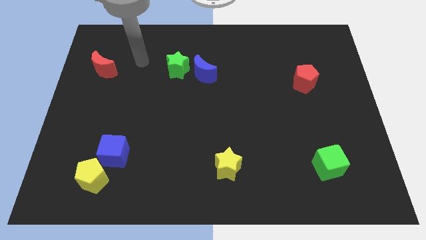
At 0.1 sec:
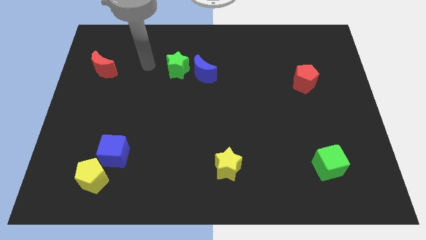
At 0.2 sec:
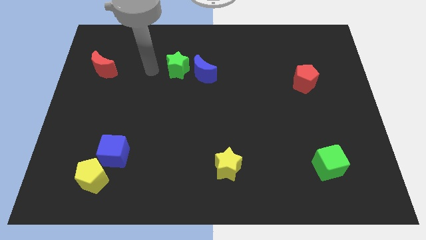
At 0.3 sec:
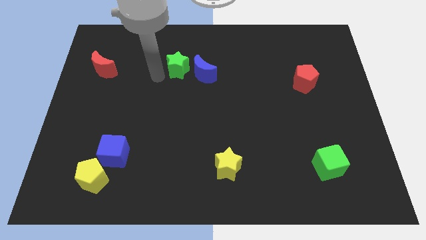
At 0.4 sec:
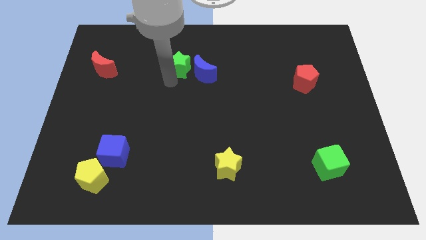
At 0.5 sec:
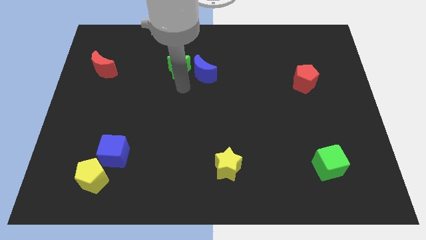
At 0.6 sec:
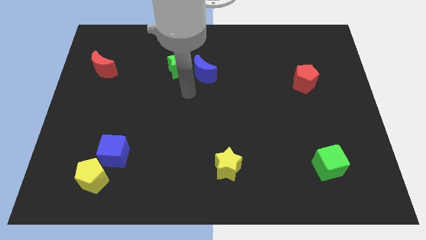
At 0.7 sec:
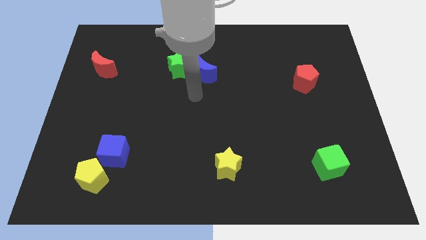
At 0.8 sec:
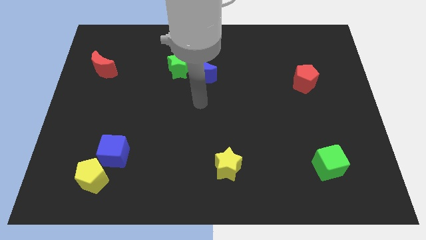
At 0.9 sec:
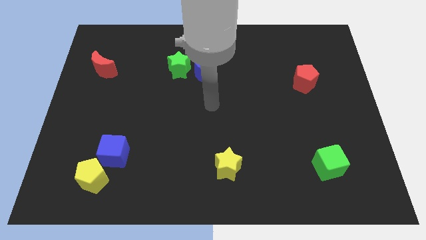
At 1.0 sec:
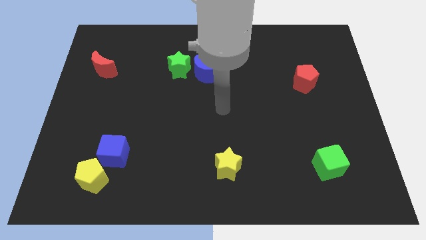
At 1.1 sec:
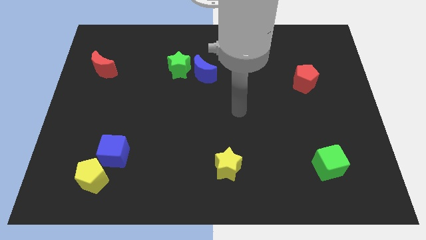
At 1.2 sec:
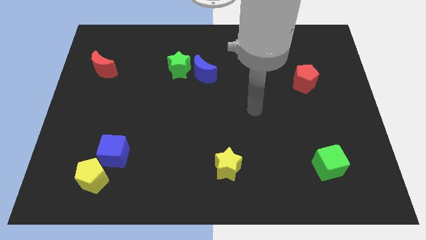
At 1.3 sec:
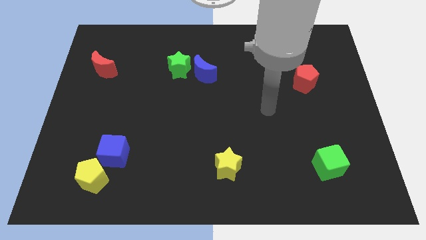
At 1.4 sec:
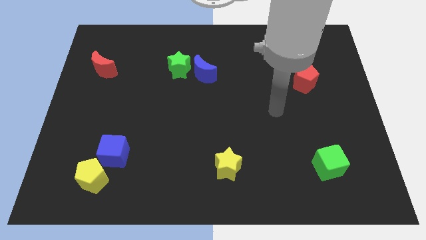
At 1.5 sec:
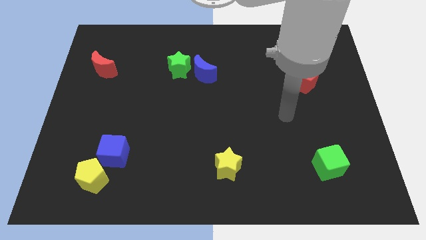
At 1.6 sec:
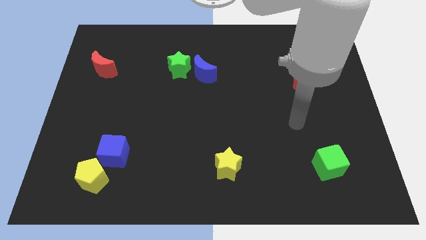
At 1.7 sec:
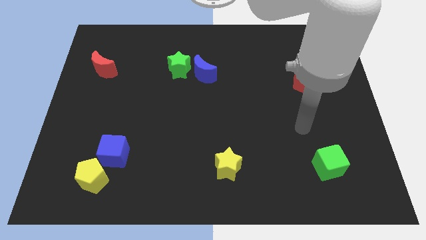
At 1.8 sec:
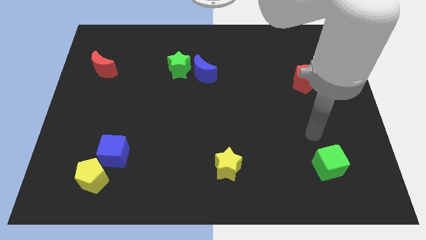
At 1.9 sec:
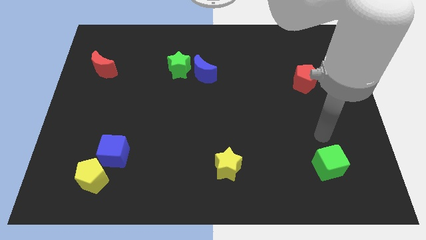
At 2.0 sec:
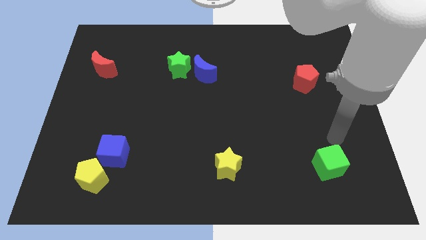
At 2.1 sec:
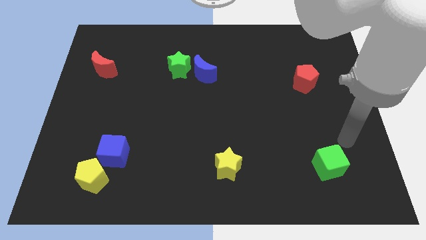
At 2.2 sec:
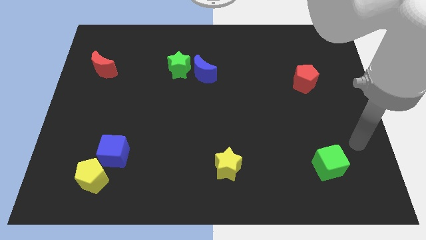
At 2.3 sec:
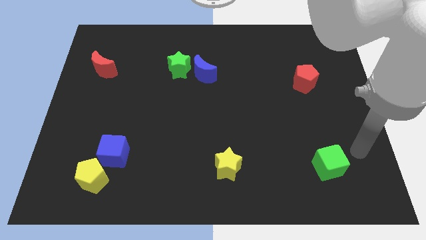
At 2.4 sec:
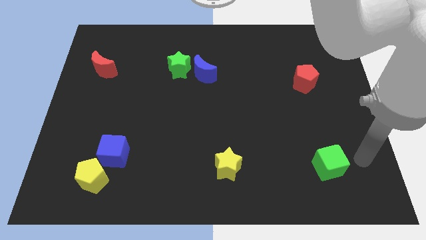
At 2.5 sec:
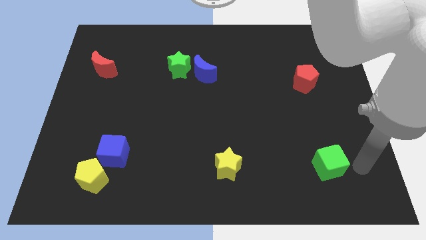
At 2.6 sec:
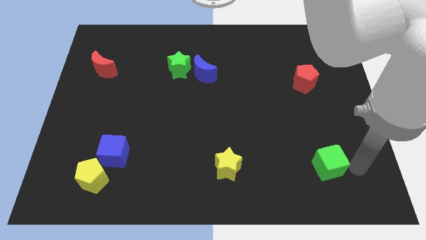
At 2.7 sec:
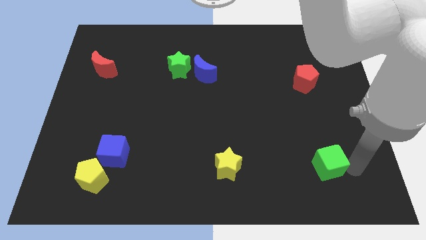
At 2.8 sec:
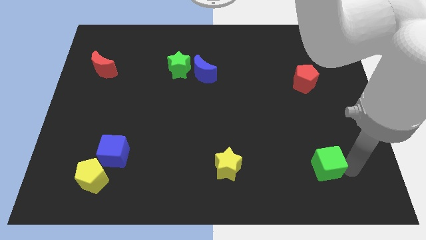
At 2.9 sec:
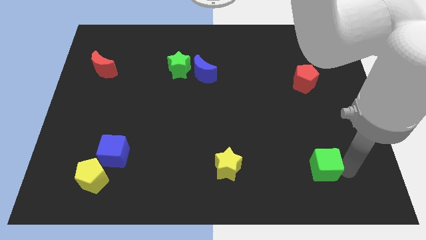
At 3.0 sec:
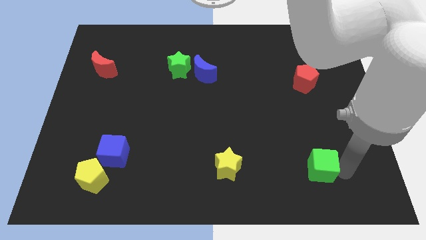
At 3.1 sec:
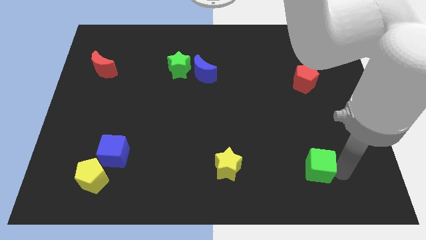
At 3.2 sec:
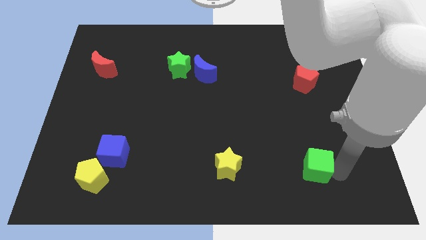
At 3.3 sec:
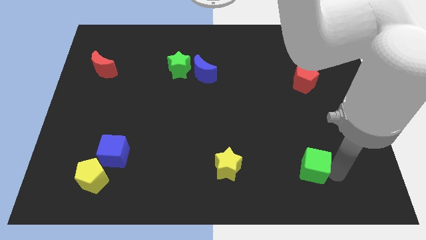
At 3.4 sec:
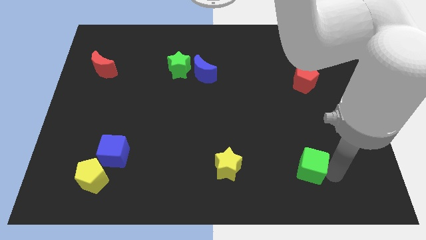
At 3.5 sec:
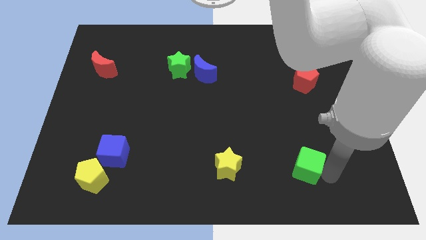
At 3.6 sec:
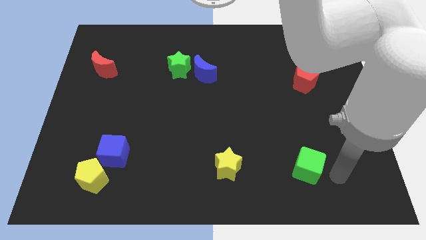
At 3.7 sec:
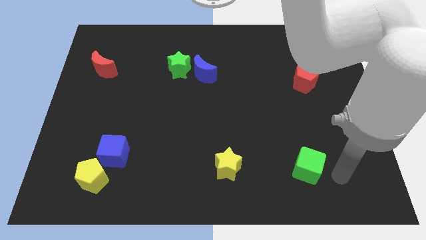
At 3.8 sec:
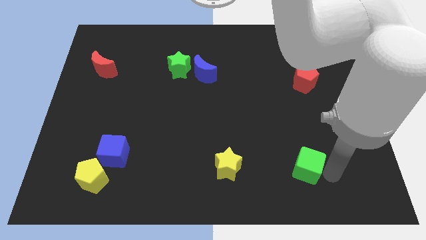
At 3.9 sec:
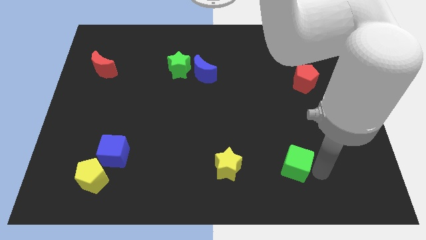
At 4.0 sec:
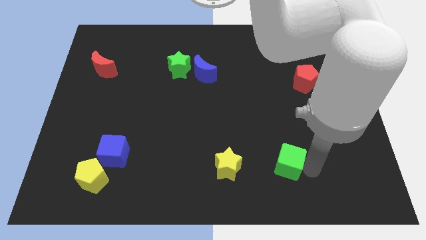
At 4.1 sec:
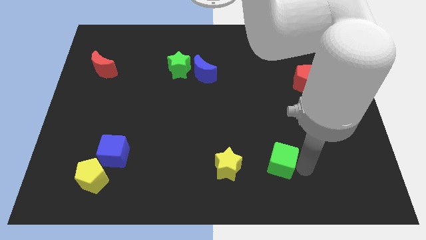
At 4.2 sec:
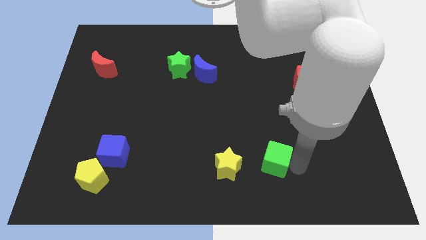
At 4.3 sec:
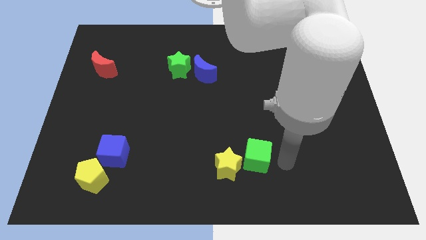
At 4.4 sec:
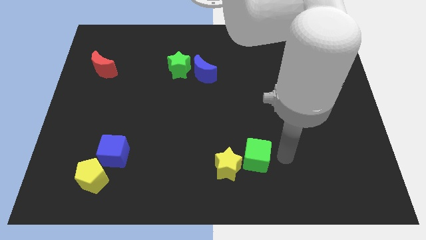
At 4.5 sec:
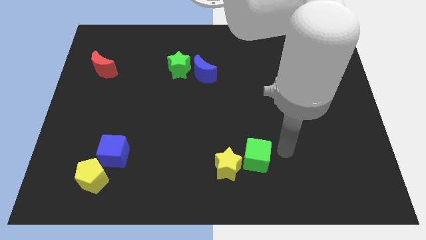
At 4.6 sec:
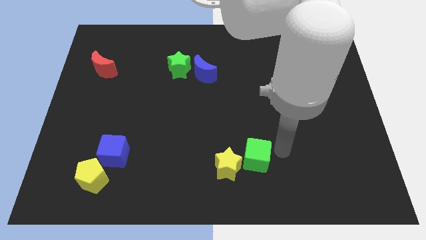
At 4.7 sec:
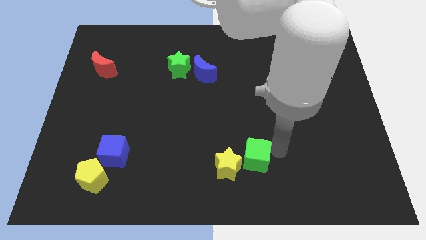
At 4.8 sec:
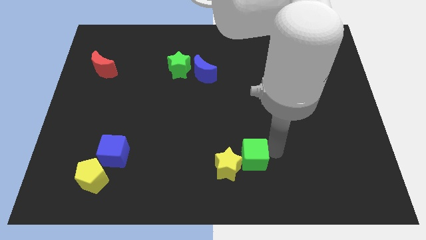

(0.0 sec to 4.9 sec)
move the green cube to the yellow star

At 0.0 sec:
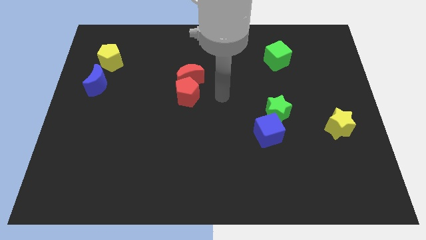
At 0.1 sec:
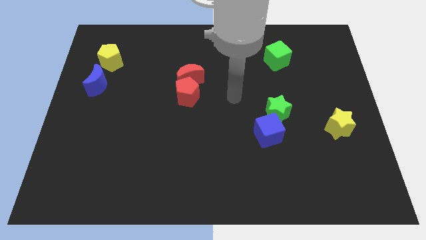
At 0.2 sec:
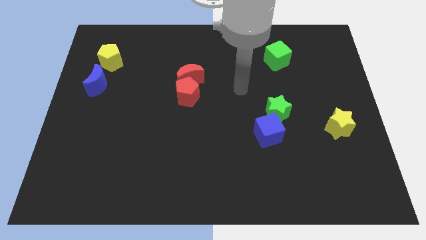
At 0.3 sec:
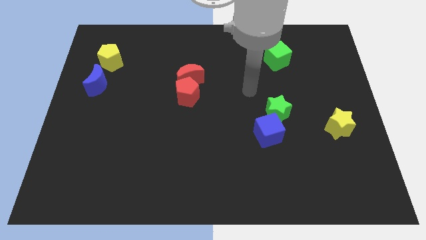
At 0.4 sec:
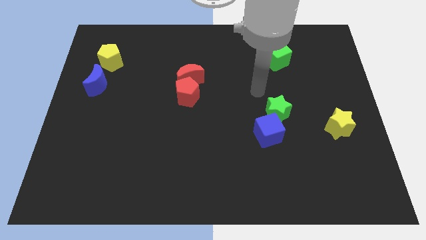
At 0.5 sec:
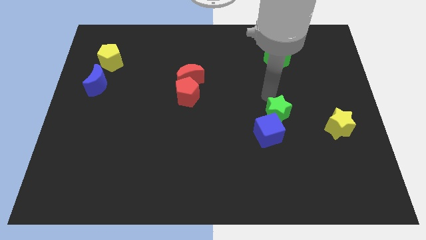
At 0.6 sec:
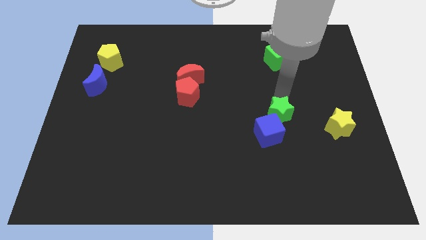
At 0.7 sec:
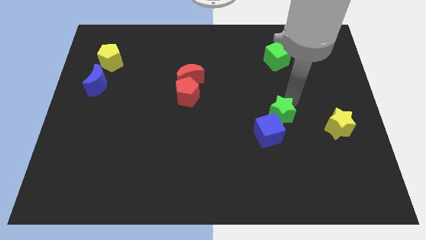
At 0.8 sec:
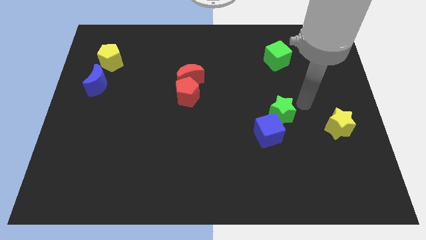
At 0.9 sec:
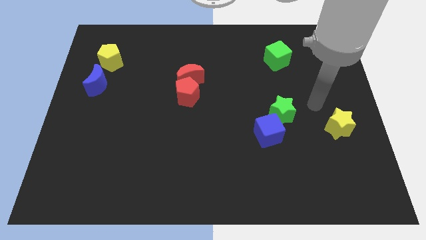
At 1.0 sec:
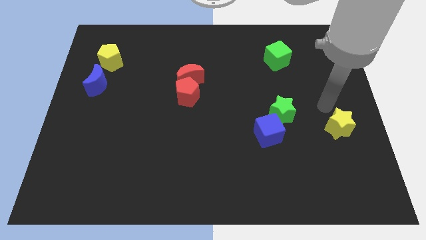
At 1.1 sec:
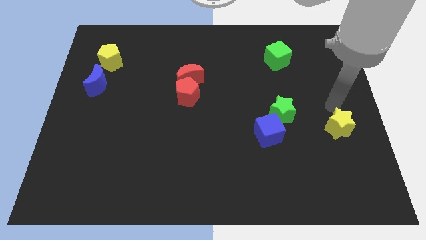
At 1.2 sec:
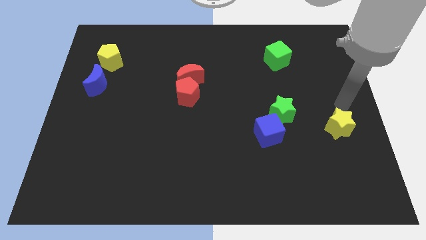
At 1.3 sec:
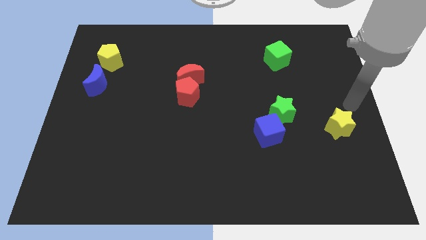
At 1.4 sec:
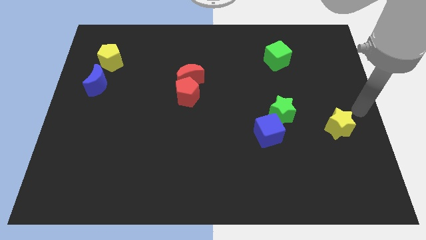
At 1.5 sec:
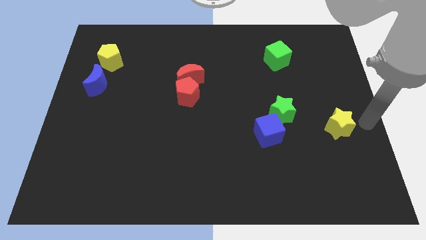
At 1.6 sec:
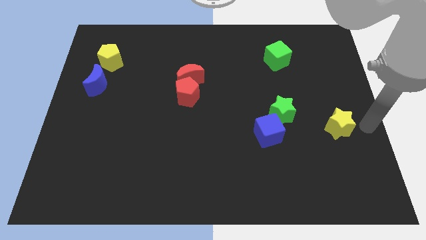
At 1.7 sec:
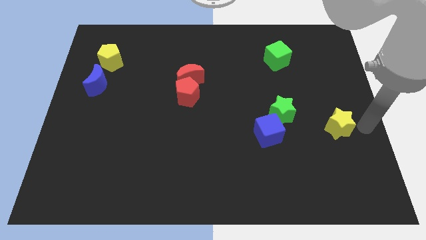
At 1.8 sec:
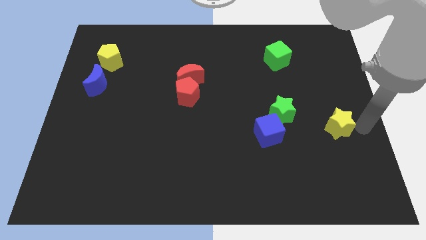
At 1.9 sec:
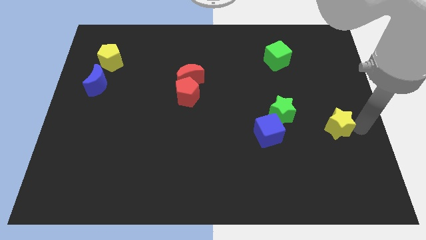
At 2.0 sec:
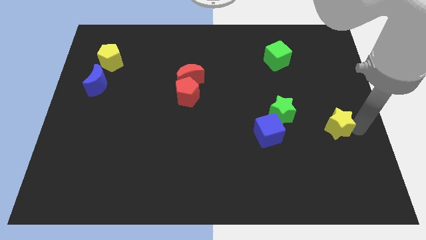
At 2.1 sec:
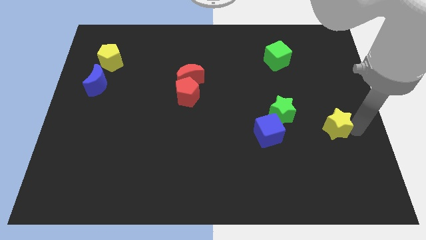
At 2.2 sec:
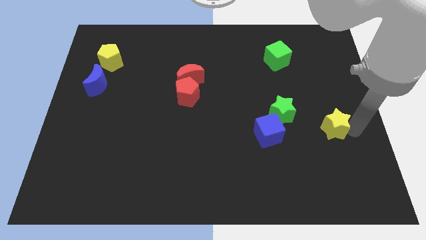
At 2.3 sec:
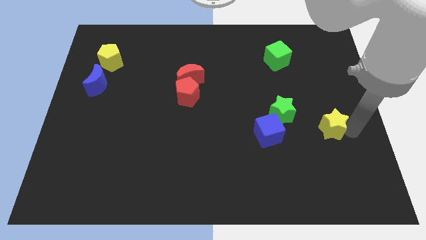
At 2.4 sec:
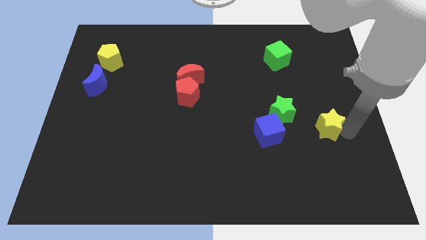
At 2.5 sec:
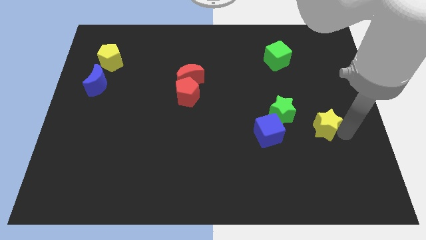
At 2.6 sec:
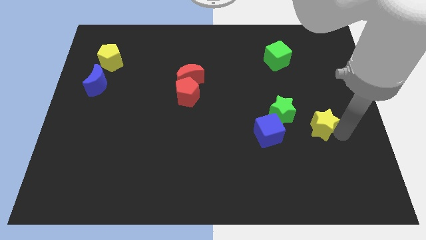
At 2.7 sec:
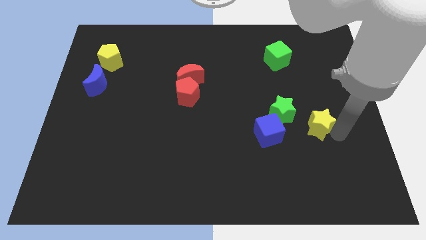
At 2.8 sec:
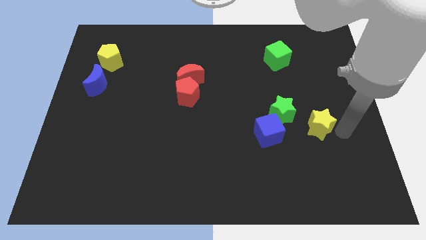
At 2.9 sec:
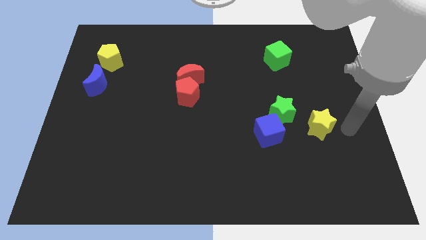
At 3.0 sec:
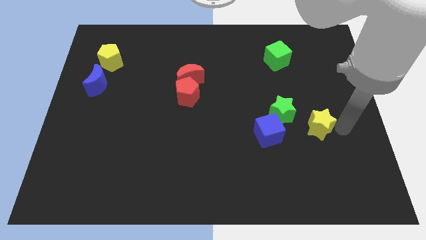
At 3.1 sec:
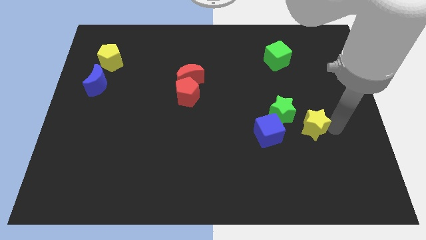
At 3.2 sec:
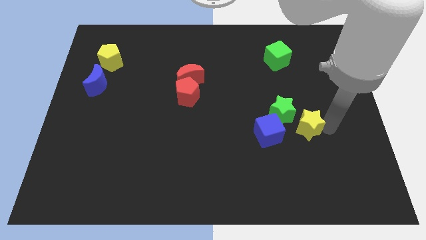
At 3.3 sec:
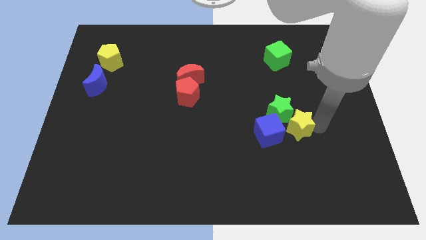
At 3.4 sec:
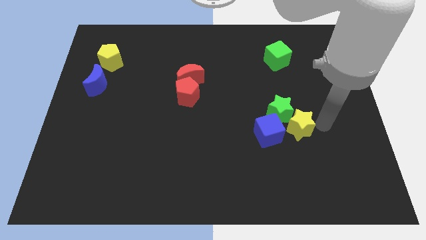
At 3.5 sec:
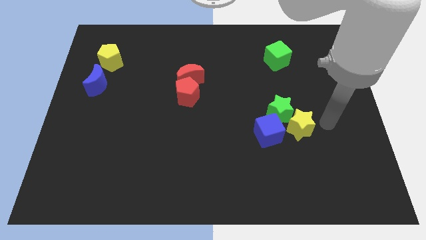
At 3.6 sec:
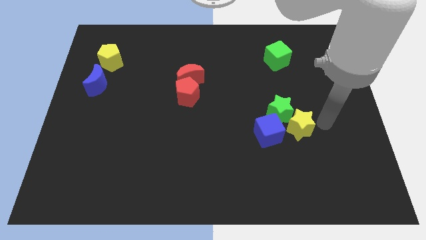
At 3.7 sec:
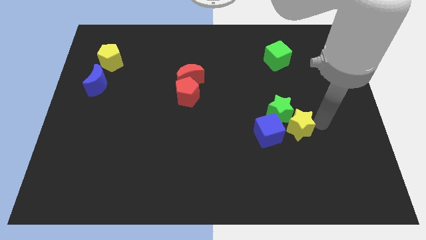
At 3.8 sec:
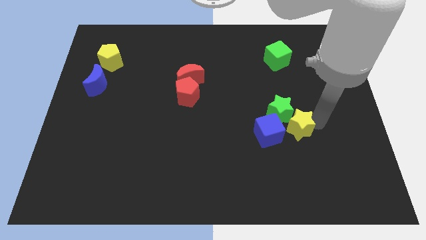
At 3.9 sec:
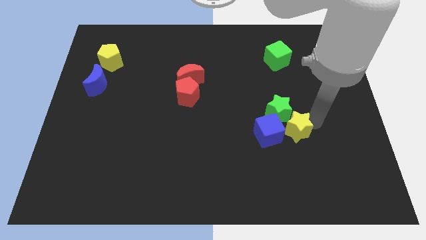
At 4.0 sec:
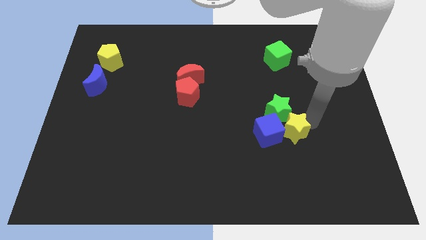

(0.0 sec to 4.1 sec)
slide the yellow star close to the blue cube
